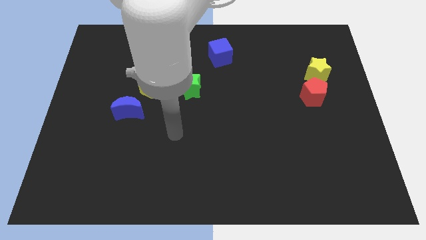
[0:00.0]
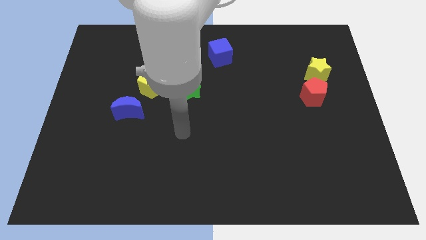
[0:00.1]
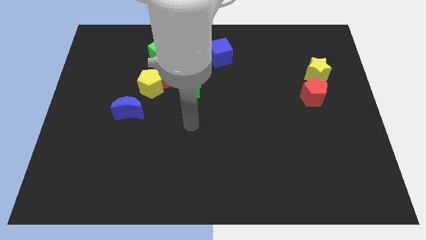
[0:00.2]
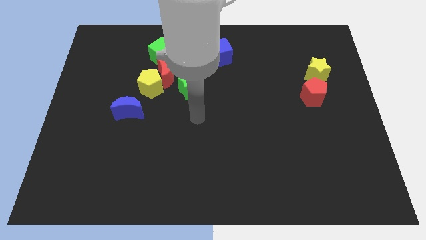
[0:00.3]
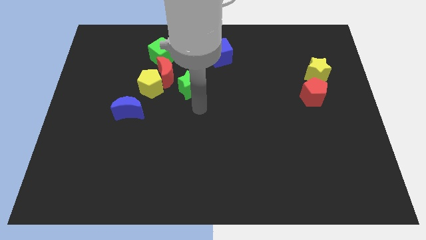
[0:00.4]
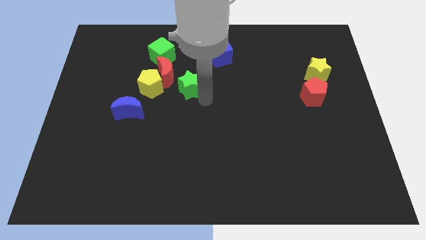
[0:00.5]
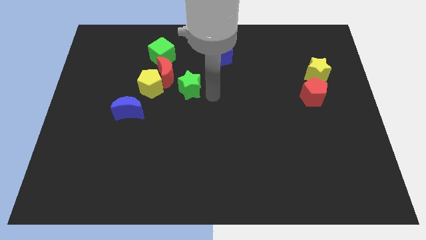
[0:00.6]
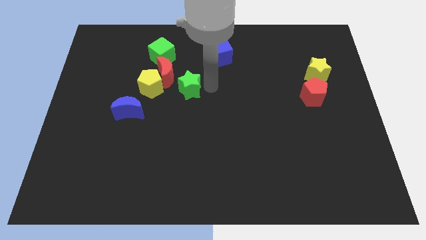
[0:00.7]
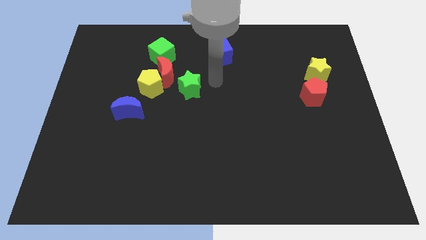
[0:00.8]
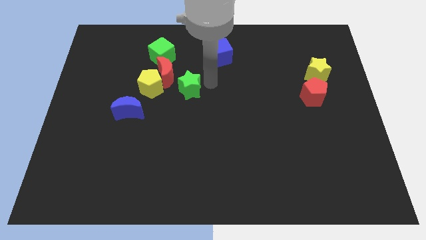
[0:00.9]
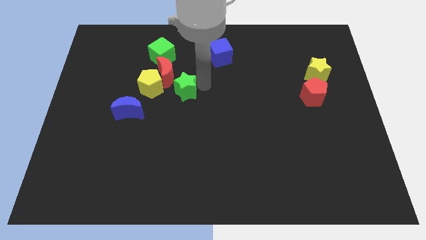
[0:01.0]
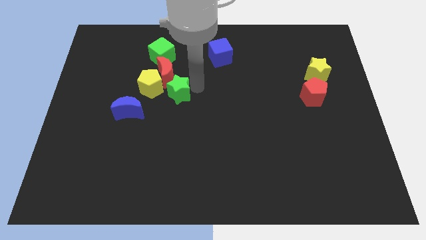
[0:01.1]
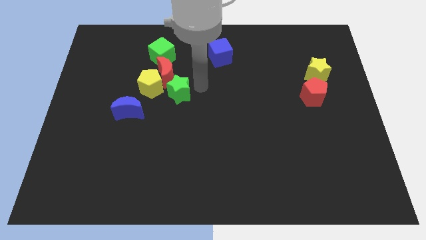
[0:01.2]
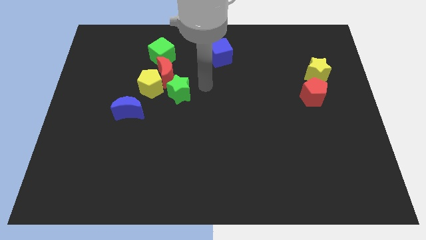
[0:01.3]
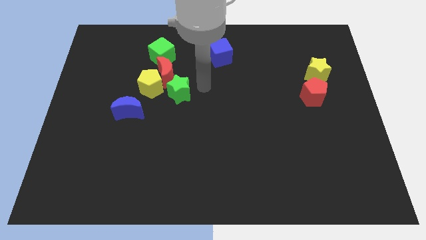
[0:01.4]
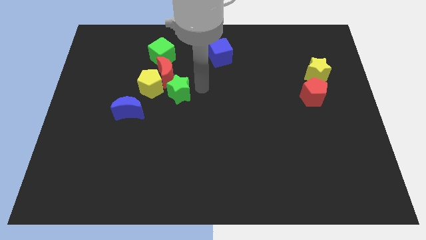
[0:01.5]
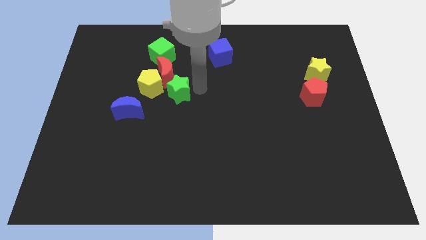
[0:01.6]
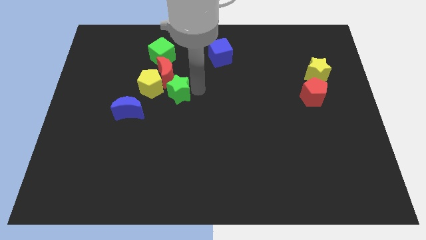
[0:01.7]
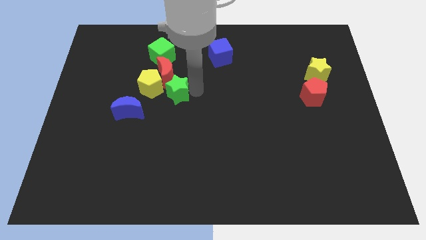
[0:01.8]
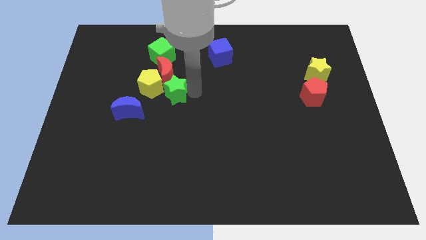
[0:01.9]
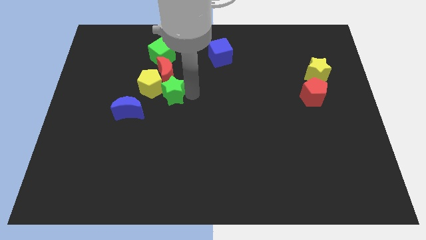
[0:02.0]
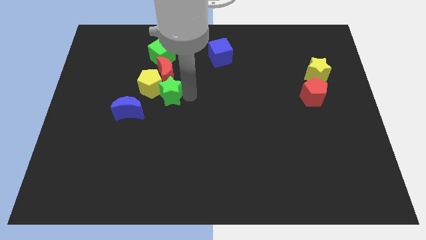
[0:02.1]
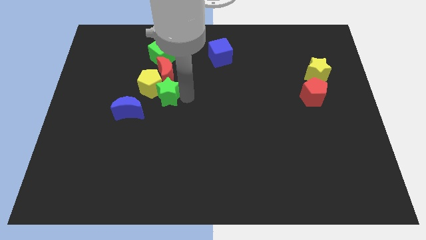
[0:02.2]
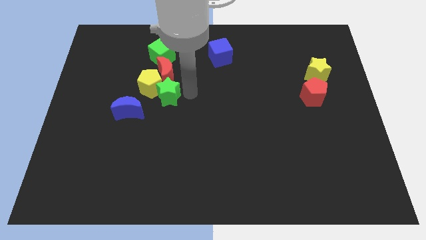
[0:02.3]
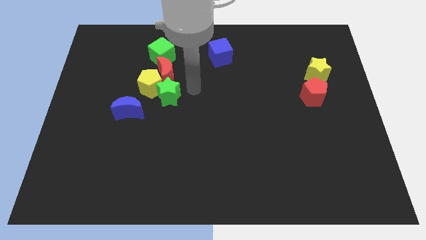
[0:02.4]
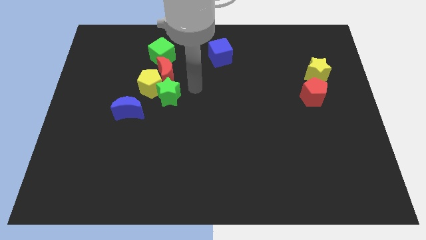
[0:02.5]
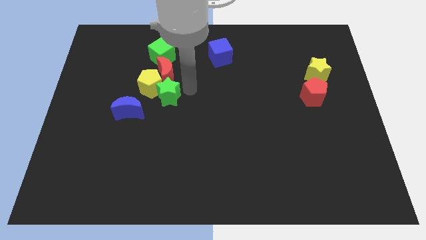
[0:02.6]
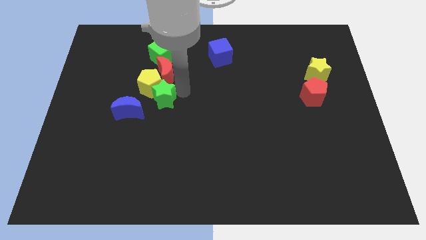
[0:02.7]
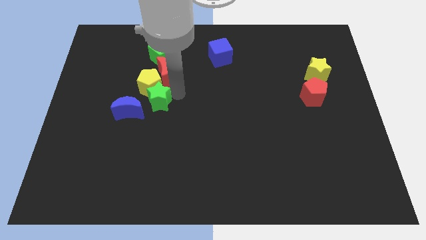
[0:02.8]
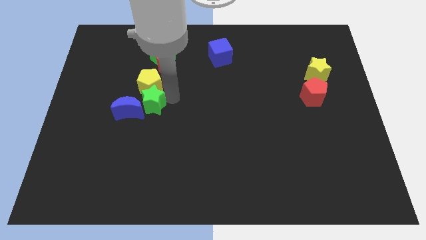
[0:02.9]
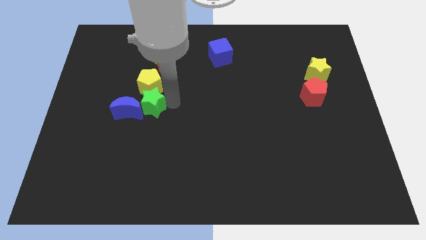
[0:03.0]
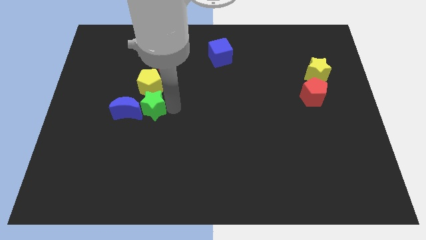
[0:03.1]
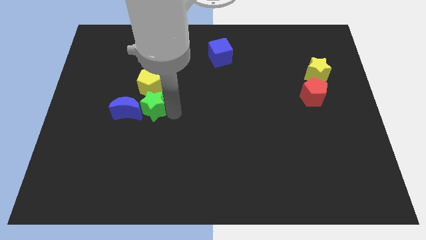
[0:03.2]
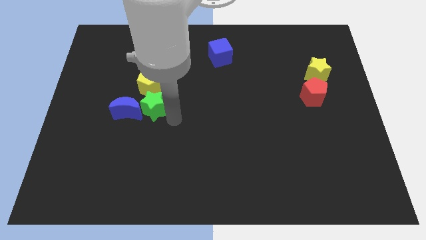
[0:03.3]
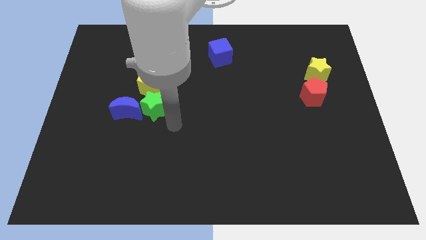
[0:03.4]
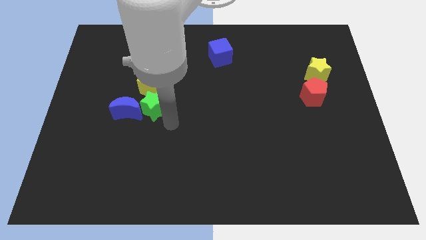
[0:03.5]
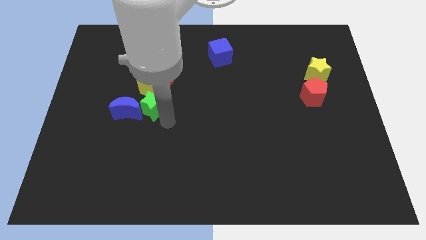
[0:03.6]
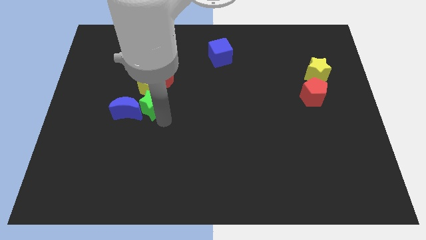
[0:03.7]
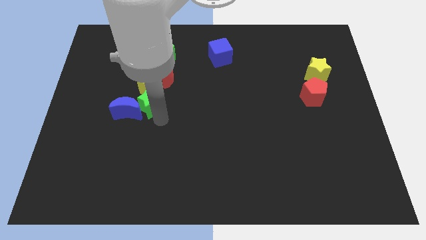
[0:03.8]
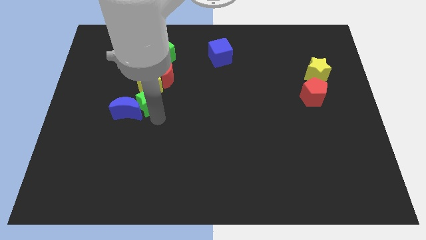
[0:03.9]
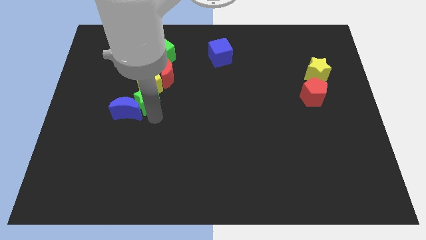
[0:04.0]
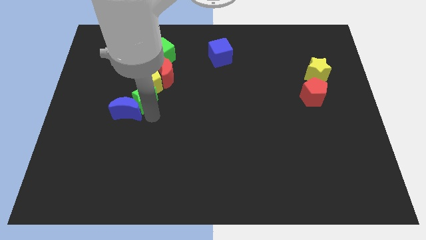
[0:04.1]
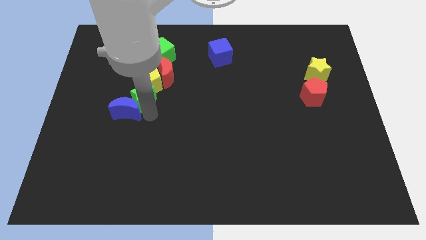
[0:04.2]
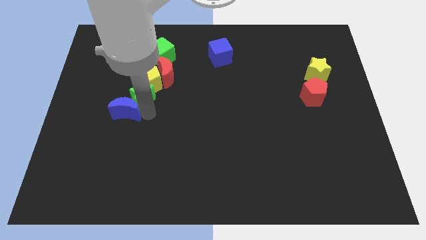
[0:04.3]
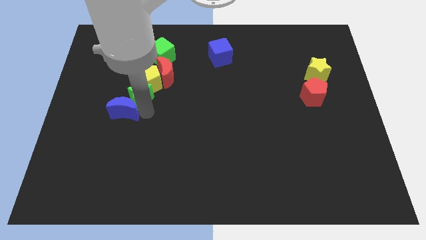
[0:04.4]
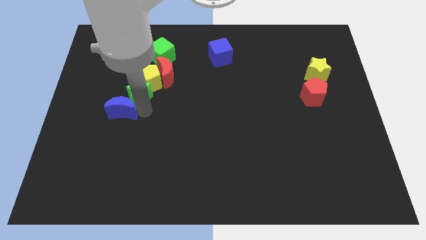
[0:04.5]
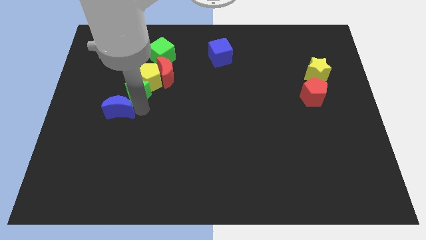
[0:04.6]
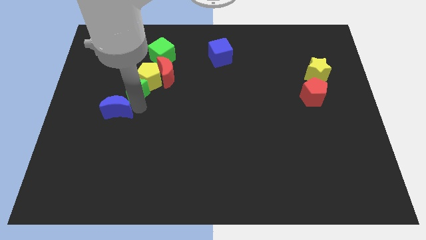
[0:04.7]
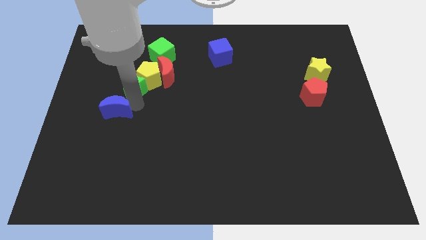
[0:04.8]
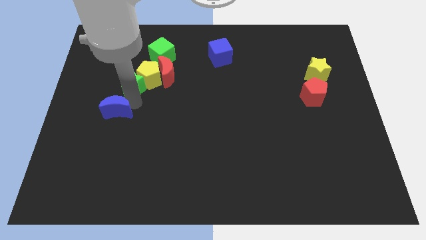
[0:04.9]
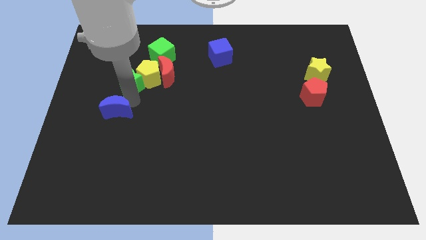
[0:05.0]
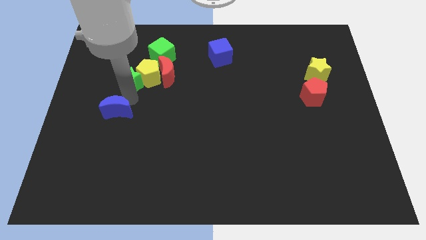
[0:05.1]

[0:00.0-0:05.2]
put the green star diagonally down and to the left of the green cube

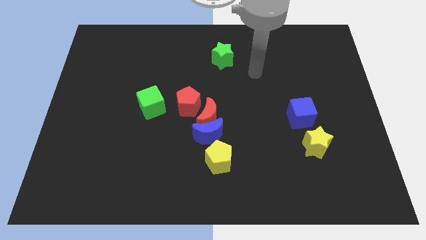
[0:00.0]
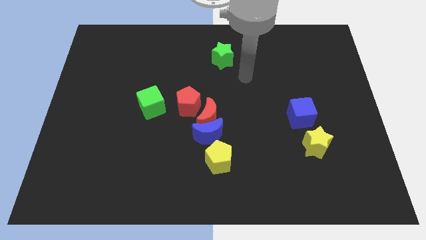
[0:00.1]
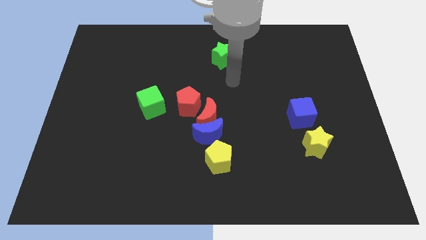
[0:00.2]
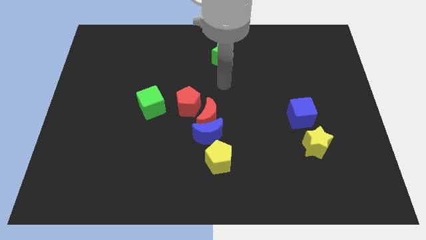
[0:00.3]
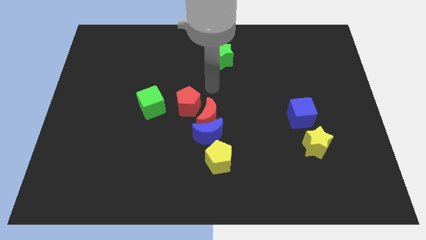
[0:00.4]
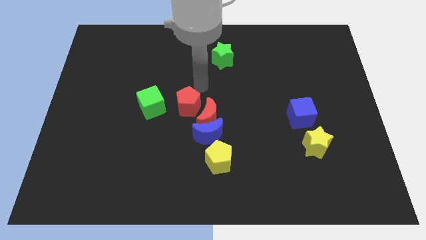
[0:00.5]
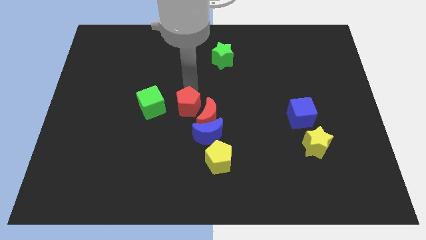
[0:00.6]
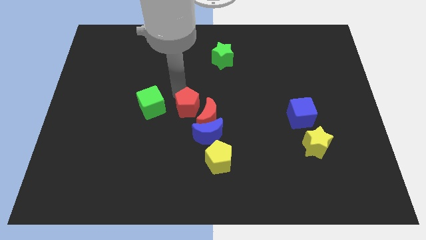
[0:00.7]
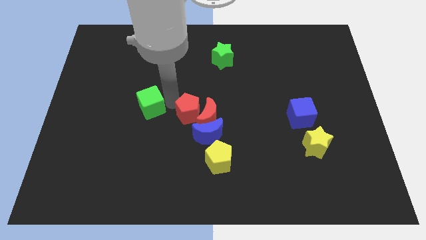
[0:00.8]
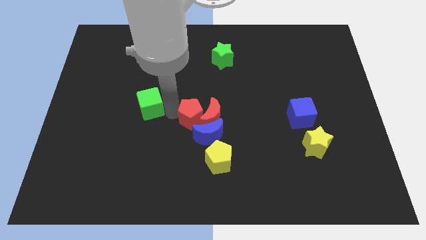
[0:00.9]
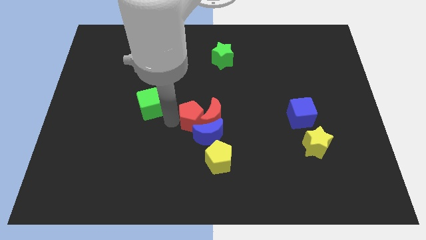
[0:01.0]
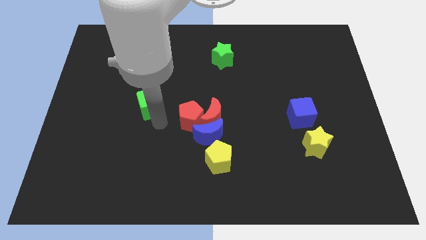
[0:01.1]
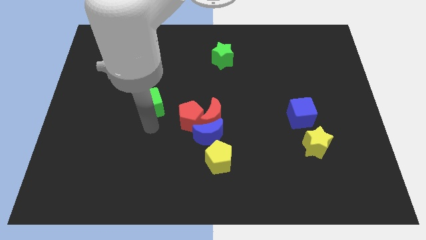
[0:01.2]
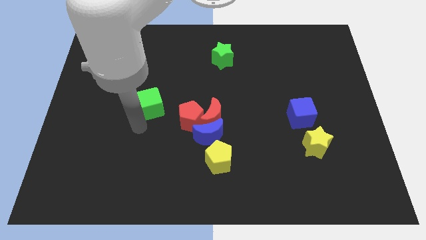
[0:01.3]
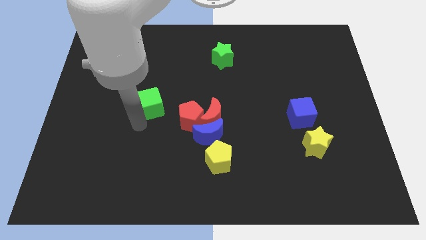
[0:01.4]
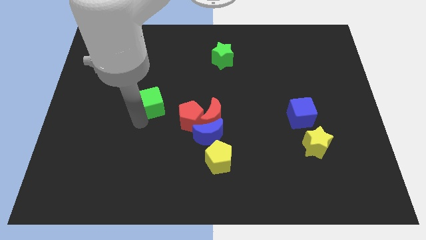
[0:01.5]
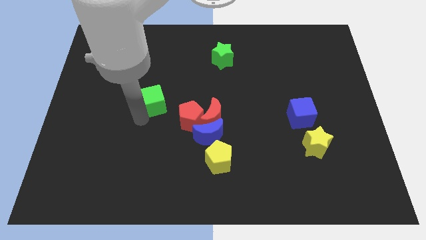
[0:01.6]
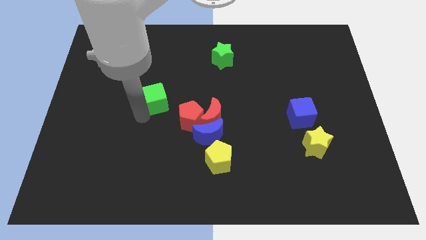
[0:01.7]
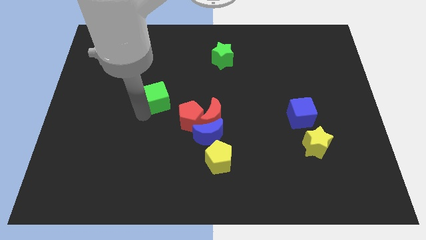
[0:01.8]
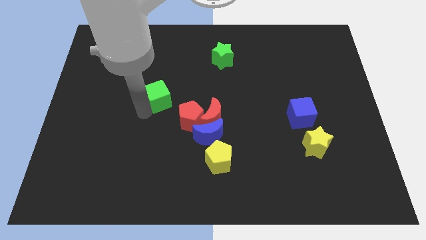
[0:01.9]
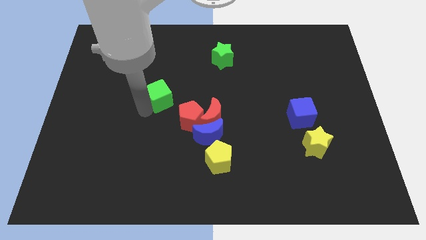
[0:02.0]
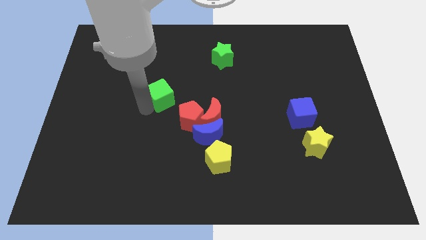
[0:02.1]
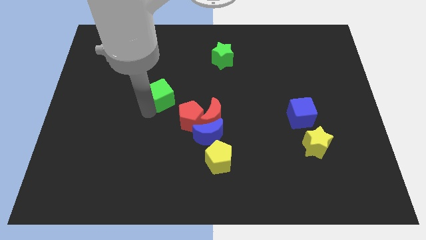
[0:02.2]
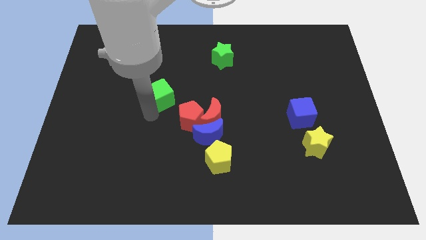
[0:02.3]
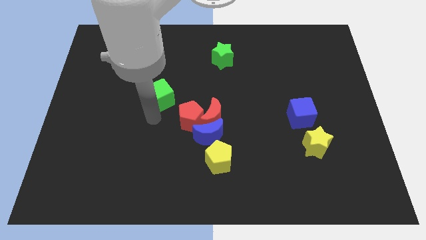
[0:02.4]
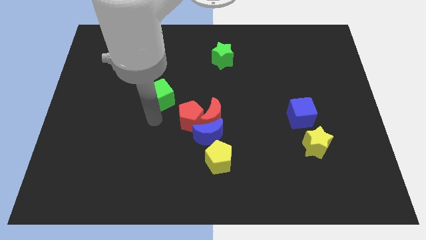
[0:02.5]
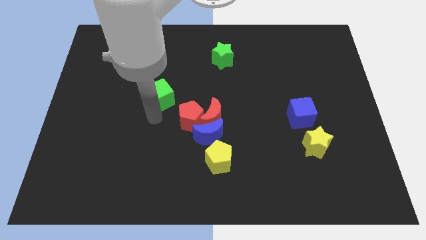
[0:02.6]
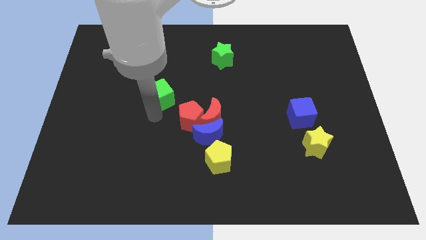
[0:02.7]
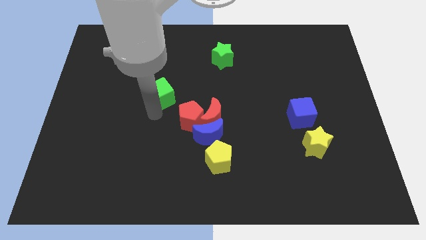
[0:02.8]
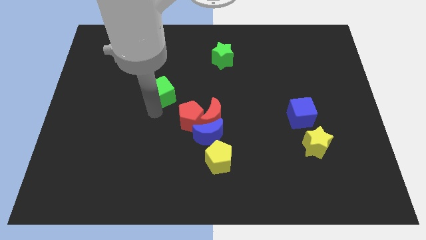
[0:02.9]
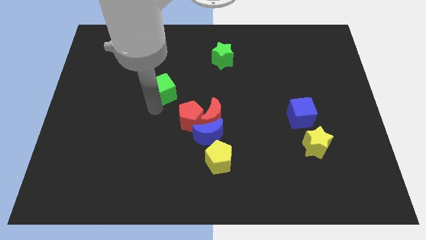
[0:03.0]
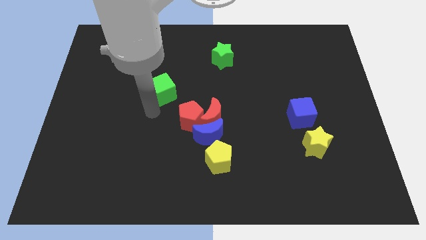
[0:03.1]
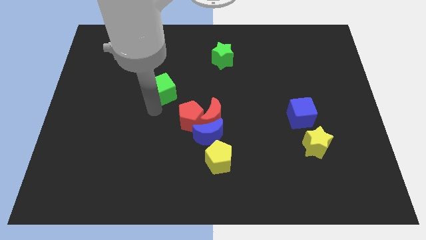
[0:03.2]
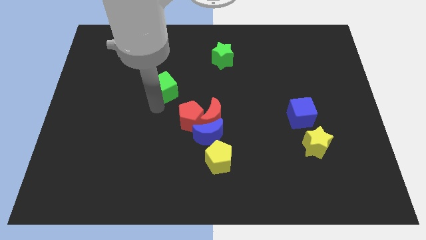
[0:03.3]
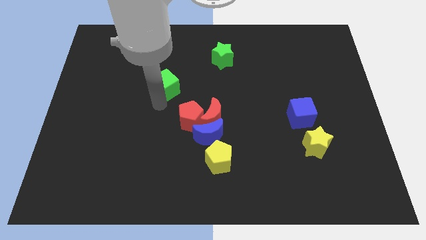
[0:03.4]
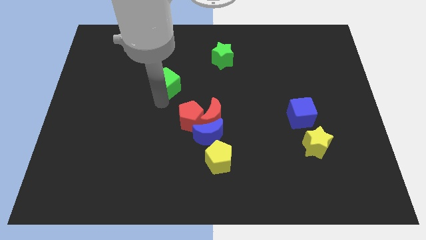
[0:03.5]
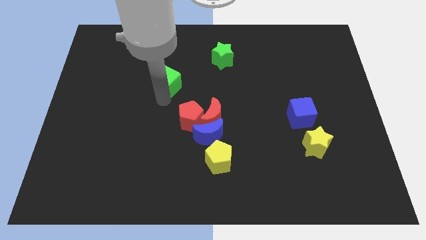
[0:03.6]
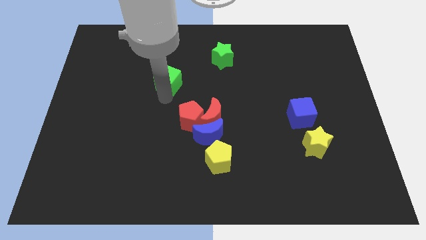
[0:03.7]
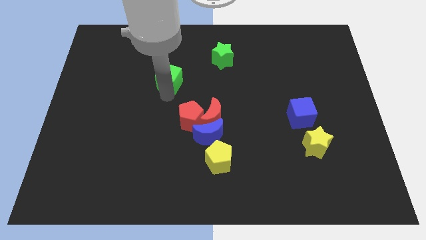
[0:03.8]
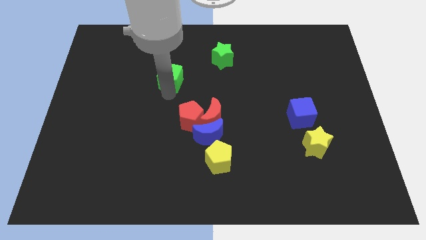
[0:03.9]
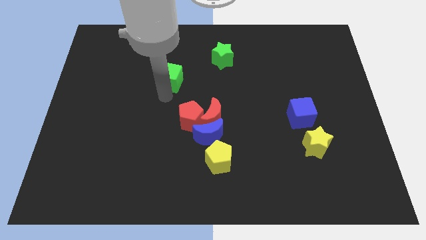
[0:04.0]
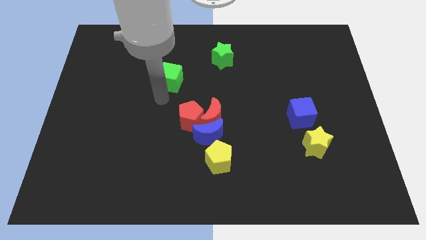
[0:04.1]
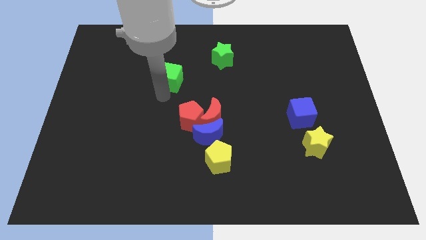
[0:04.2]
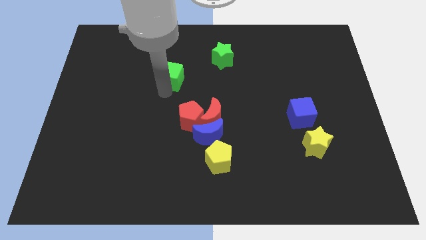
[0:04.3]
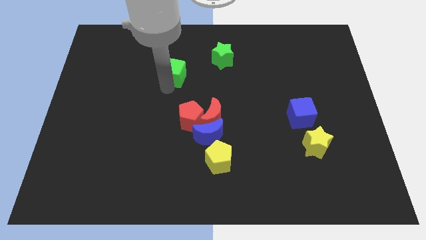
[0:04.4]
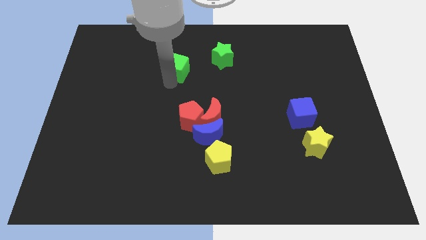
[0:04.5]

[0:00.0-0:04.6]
move the green cube left of the green star
